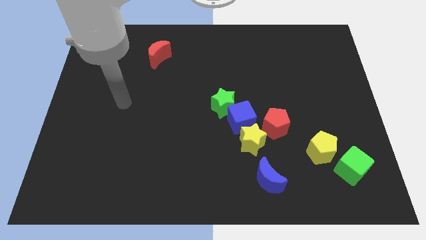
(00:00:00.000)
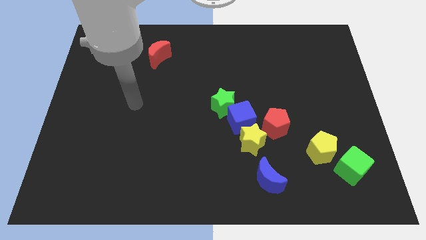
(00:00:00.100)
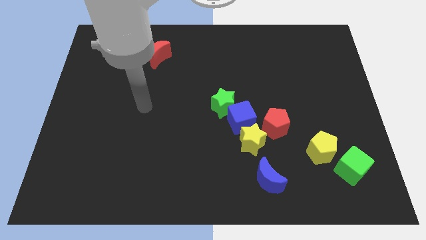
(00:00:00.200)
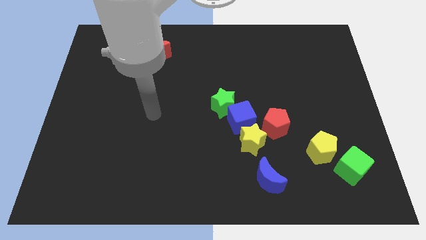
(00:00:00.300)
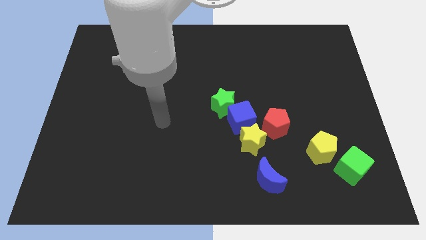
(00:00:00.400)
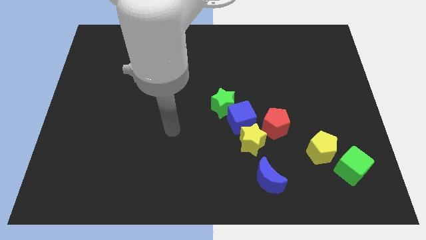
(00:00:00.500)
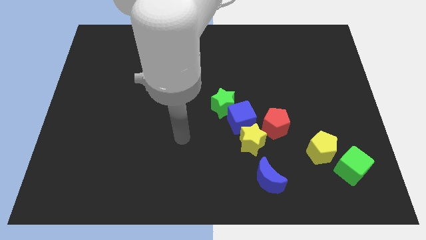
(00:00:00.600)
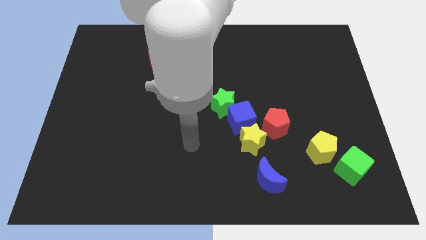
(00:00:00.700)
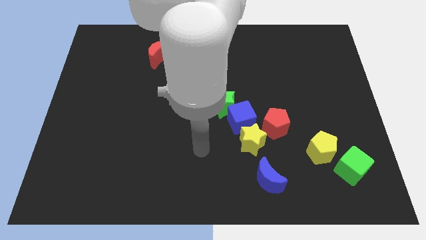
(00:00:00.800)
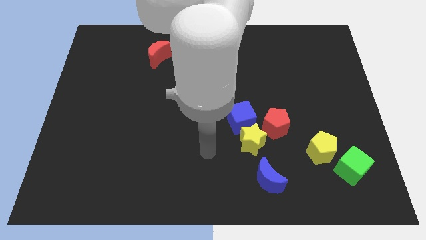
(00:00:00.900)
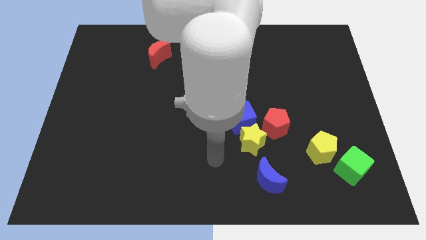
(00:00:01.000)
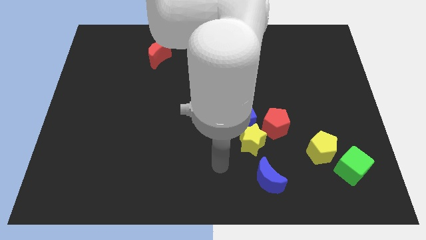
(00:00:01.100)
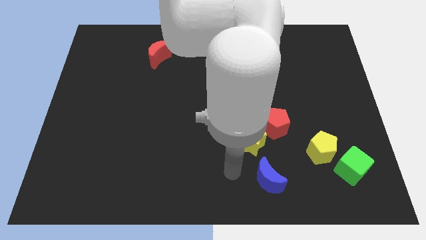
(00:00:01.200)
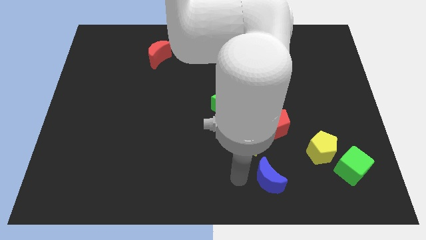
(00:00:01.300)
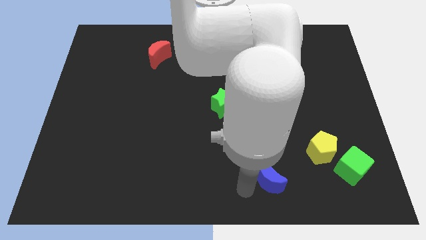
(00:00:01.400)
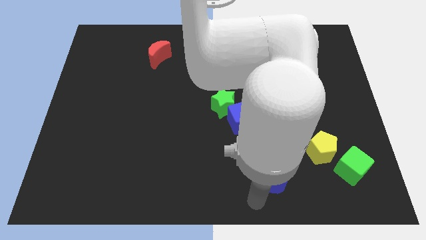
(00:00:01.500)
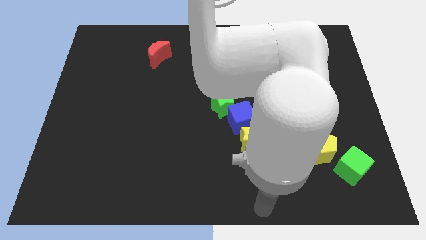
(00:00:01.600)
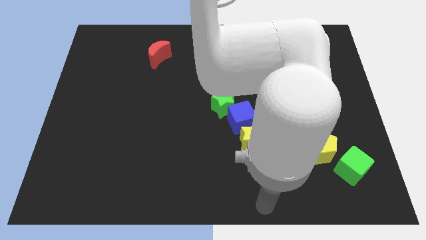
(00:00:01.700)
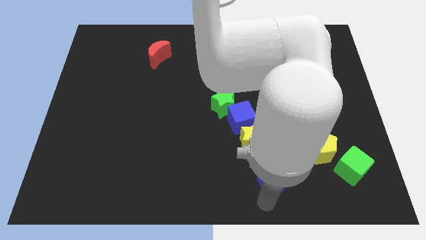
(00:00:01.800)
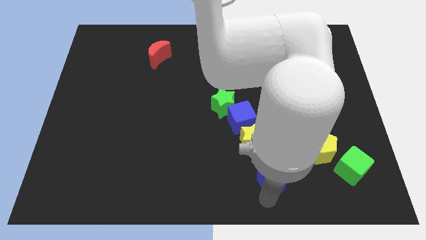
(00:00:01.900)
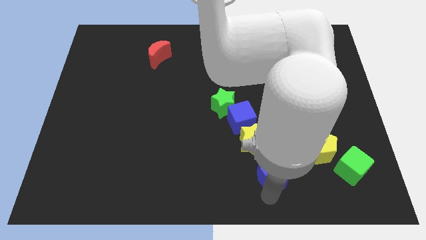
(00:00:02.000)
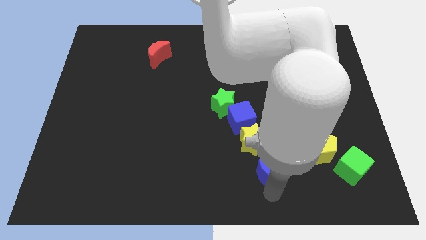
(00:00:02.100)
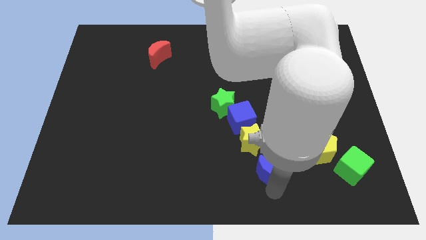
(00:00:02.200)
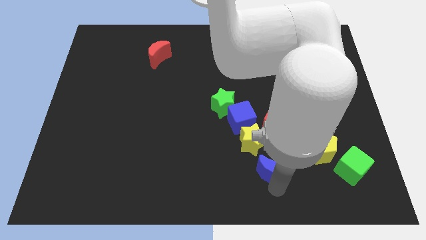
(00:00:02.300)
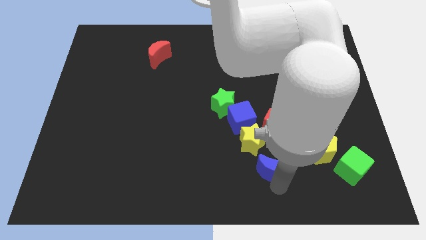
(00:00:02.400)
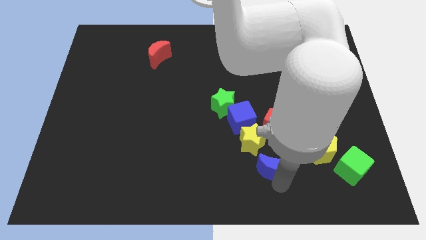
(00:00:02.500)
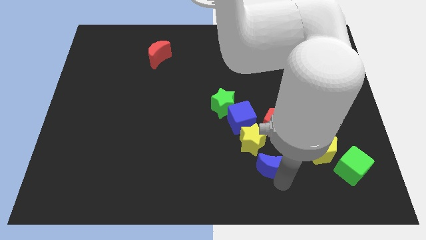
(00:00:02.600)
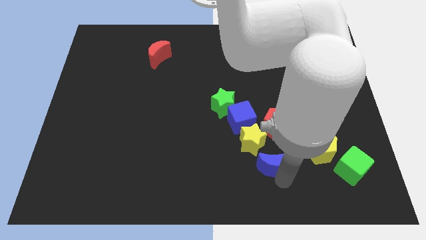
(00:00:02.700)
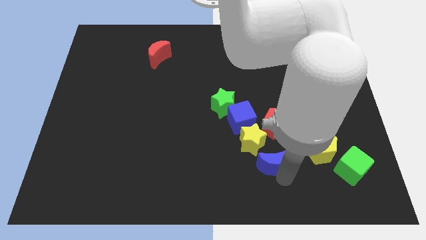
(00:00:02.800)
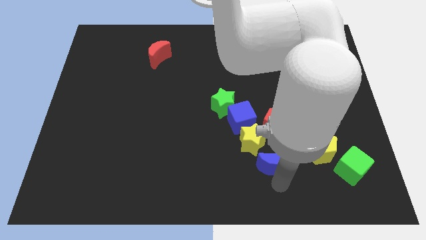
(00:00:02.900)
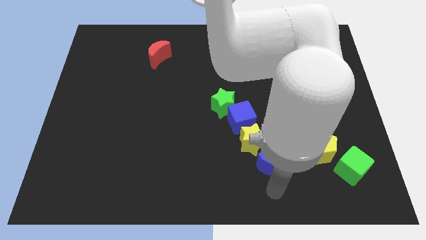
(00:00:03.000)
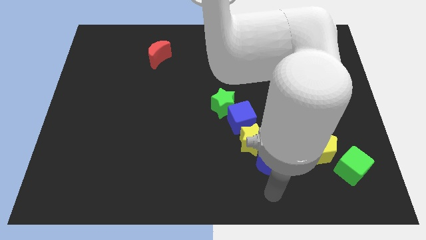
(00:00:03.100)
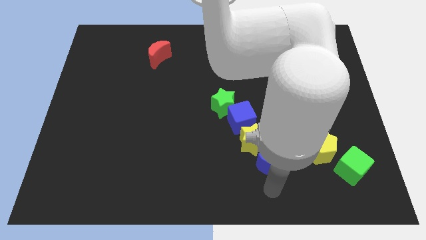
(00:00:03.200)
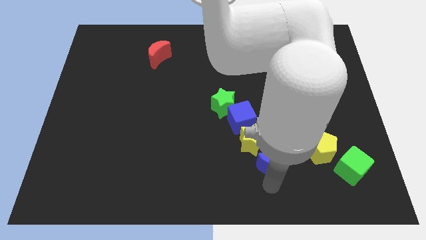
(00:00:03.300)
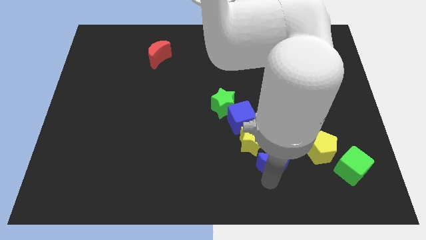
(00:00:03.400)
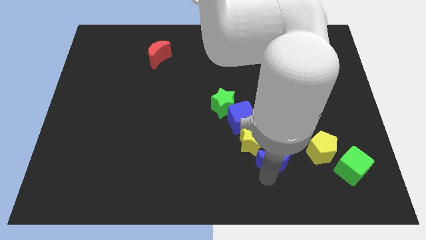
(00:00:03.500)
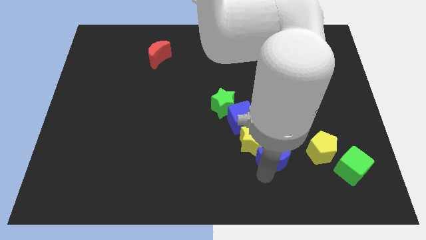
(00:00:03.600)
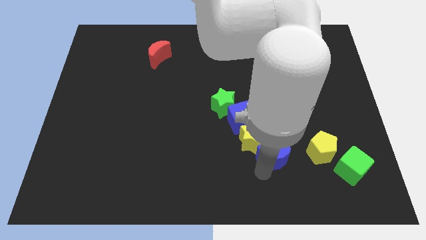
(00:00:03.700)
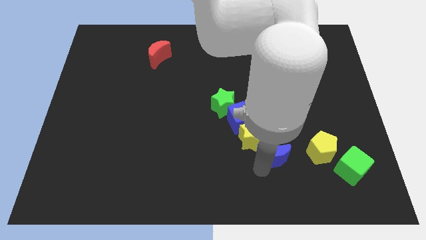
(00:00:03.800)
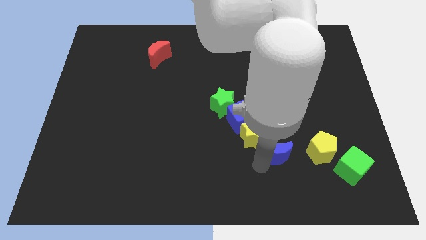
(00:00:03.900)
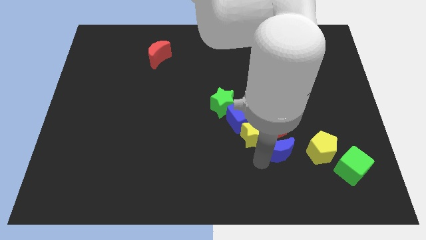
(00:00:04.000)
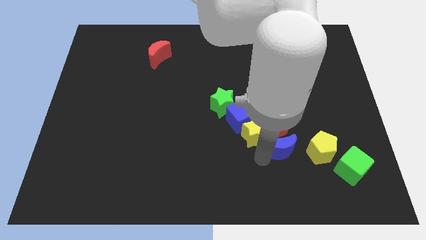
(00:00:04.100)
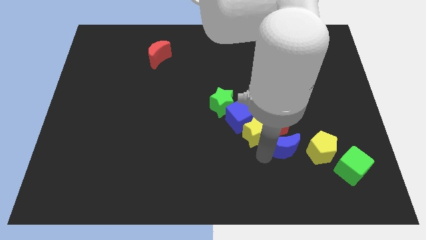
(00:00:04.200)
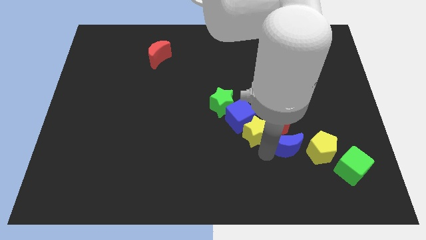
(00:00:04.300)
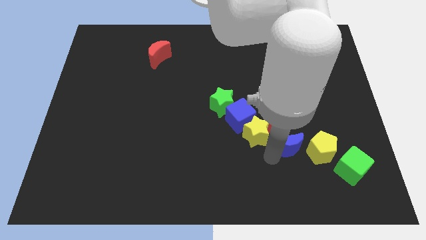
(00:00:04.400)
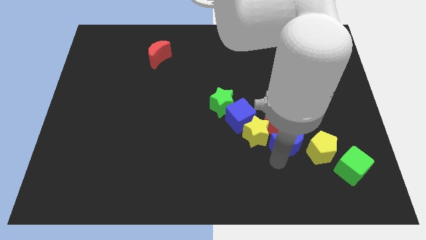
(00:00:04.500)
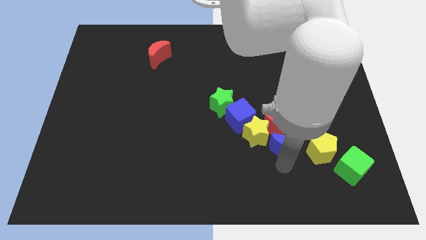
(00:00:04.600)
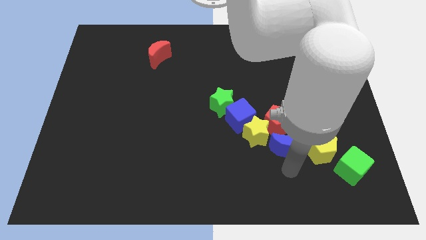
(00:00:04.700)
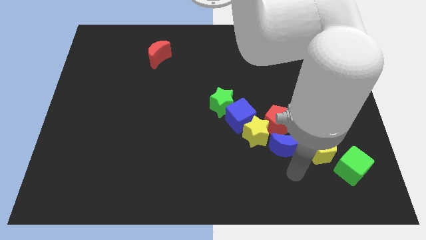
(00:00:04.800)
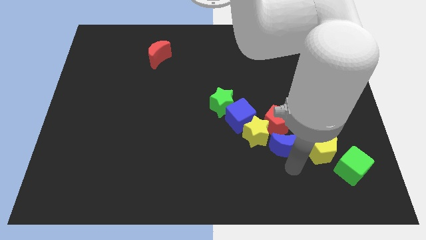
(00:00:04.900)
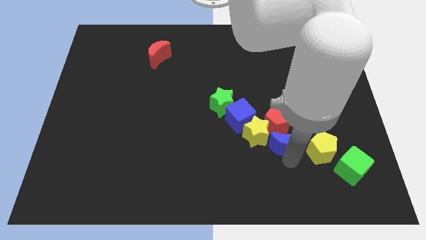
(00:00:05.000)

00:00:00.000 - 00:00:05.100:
push the blue moon to the red pentagon

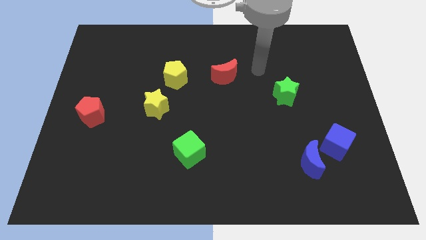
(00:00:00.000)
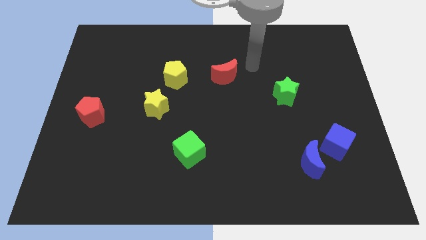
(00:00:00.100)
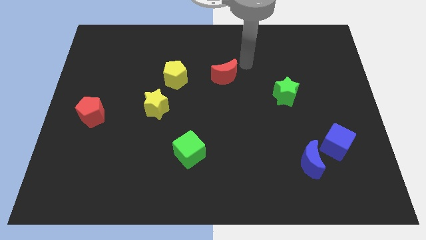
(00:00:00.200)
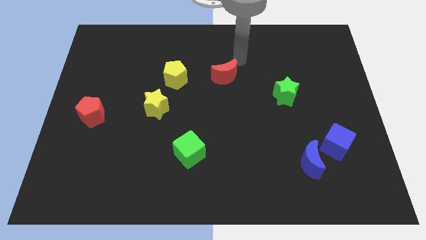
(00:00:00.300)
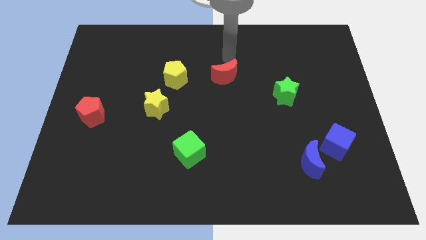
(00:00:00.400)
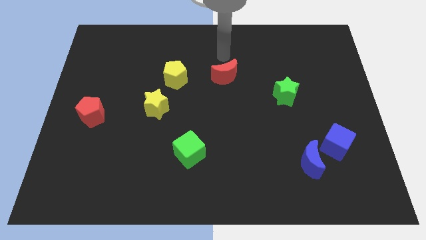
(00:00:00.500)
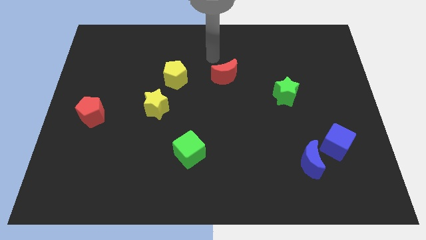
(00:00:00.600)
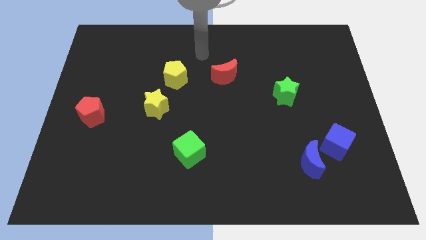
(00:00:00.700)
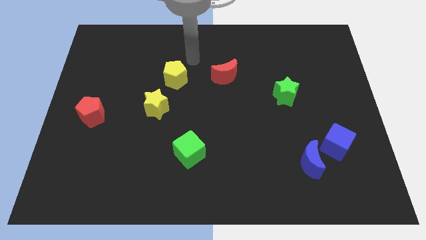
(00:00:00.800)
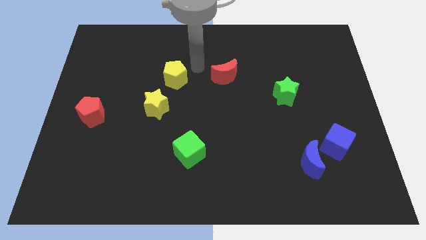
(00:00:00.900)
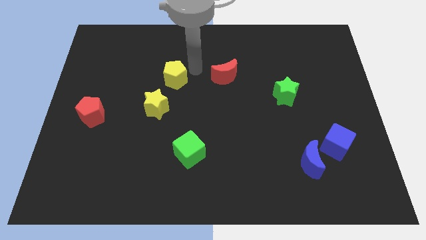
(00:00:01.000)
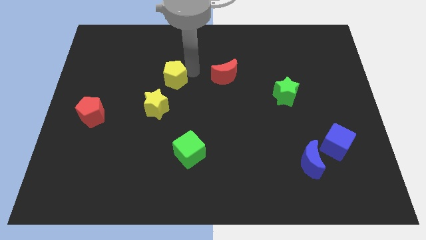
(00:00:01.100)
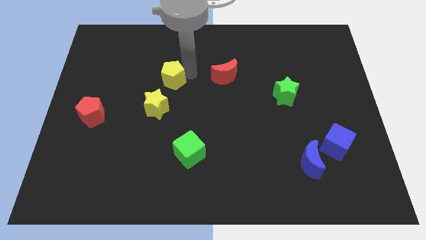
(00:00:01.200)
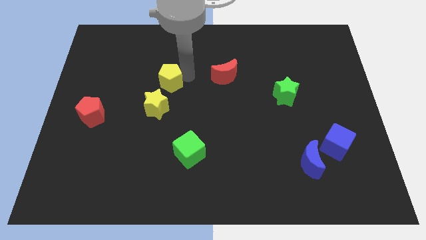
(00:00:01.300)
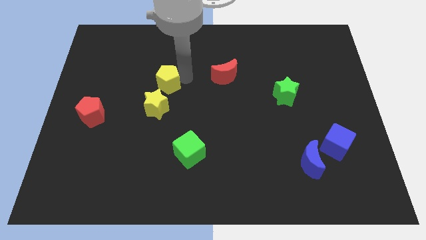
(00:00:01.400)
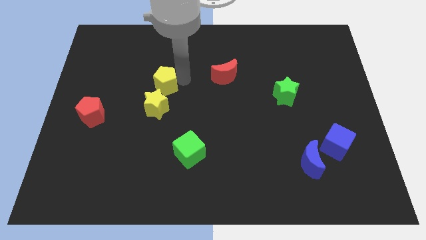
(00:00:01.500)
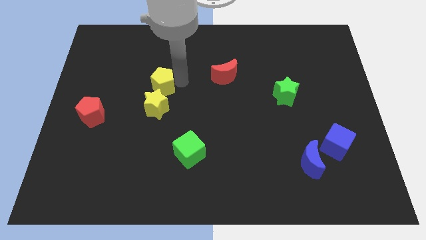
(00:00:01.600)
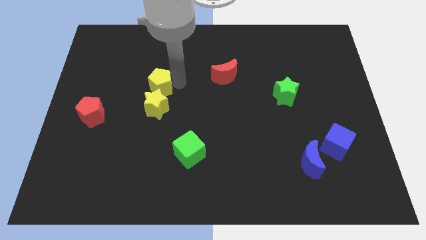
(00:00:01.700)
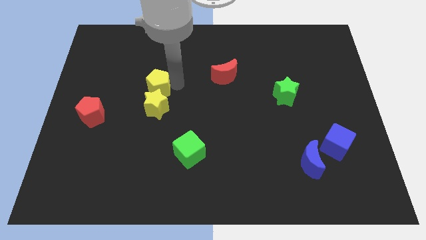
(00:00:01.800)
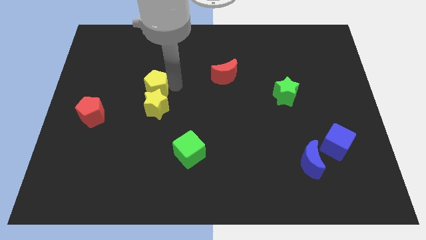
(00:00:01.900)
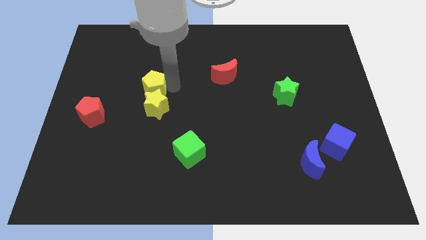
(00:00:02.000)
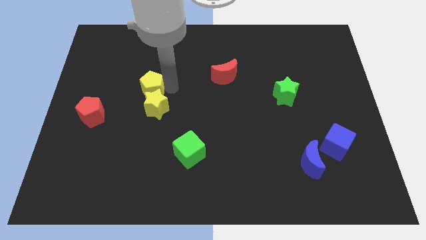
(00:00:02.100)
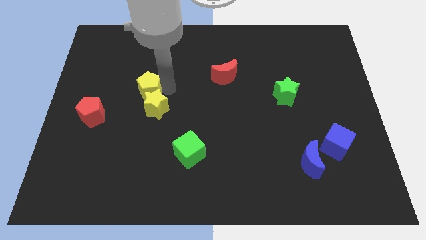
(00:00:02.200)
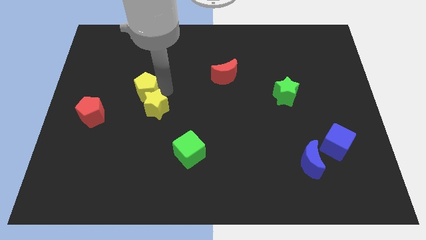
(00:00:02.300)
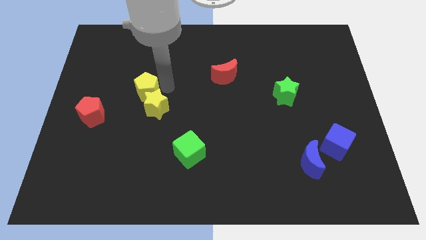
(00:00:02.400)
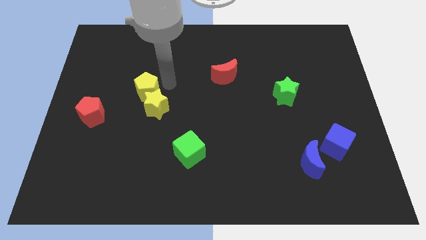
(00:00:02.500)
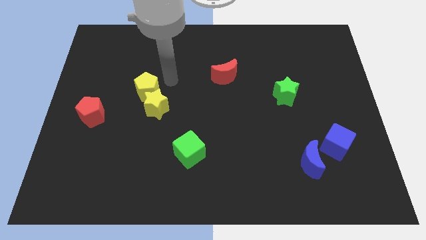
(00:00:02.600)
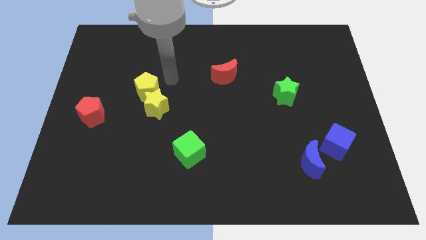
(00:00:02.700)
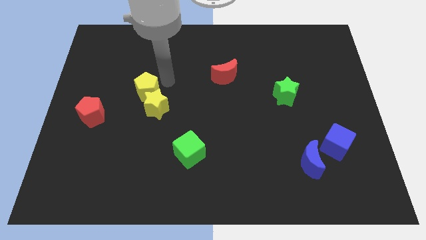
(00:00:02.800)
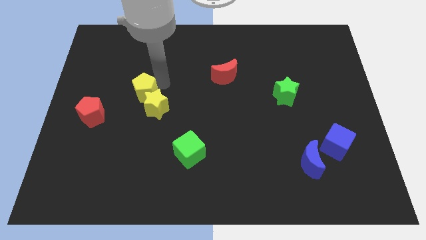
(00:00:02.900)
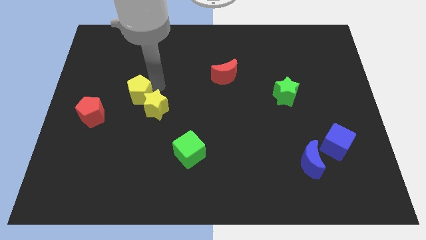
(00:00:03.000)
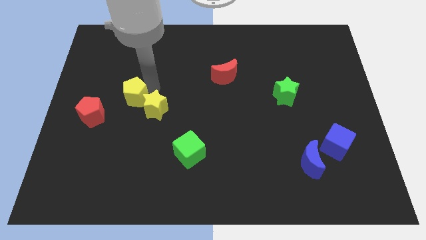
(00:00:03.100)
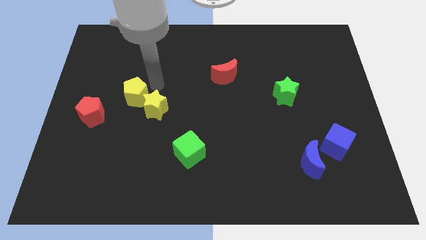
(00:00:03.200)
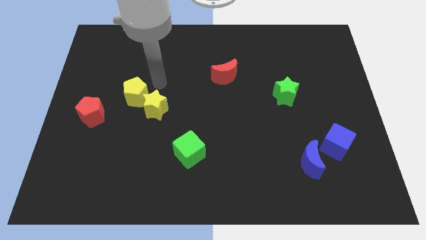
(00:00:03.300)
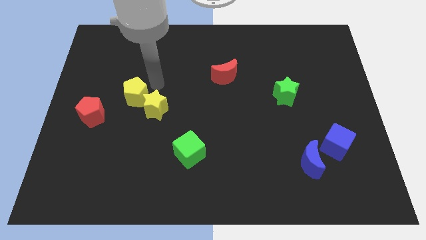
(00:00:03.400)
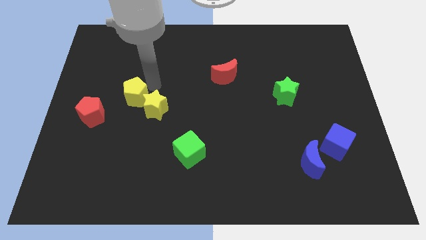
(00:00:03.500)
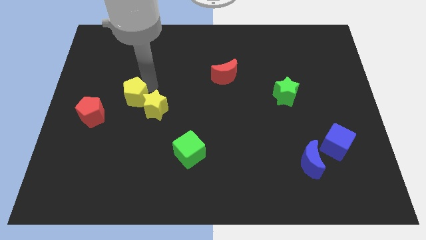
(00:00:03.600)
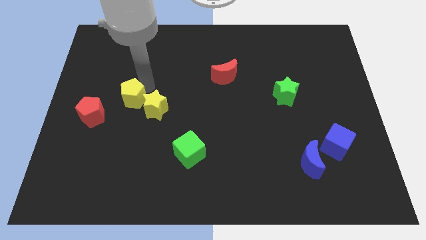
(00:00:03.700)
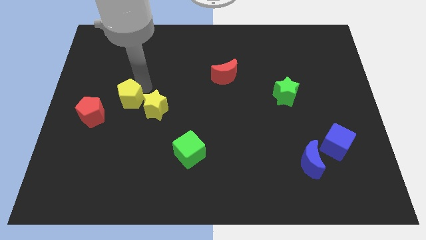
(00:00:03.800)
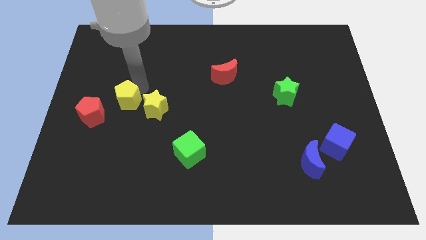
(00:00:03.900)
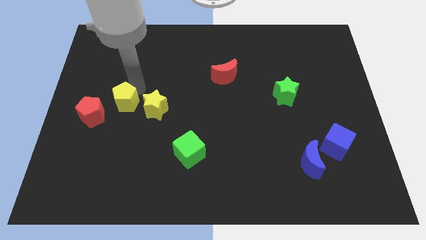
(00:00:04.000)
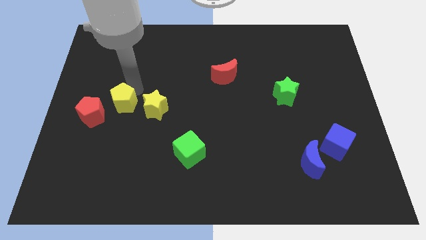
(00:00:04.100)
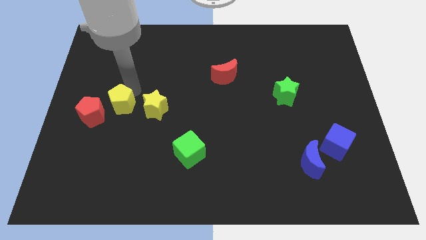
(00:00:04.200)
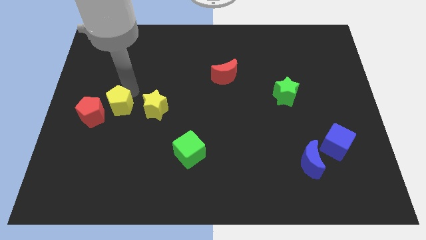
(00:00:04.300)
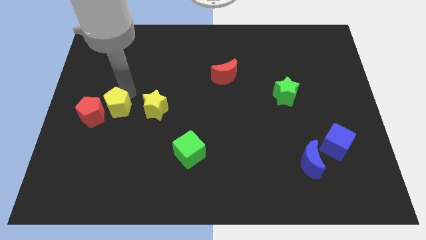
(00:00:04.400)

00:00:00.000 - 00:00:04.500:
push the yellow pentagon towards the red pentagon
